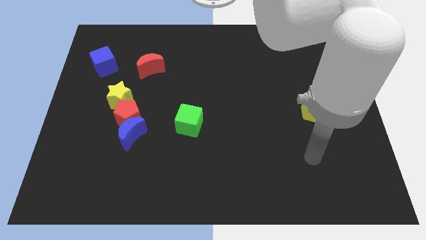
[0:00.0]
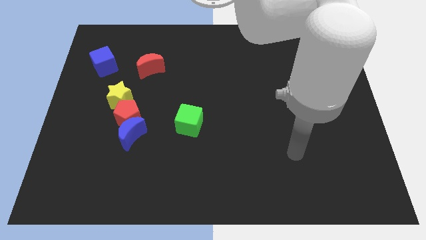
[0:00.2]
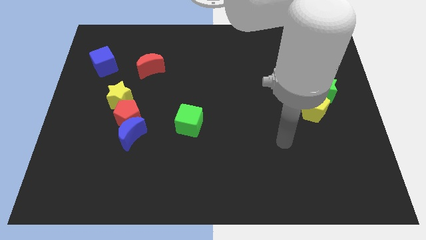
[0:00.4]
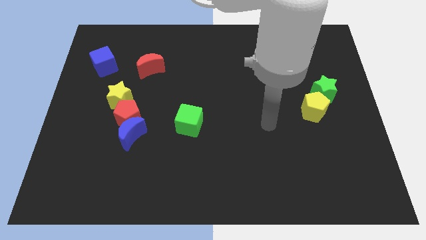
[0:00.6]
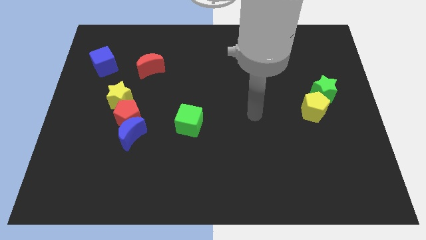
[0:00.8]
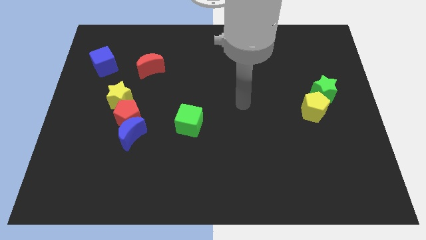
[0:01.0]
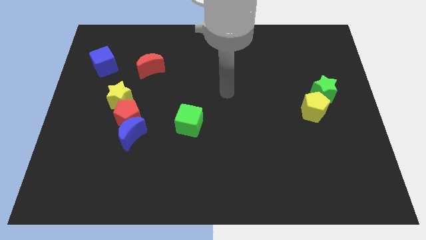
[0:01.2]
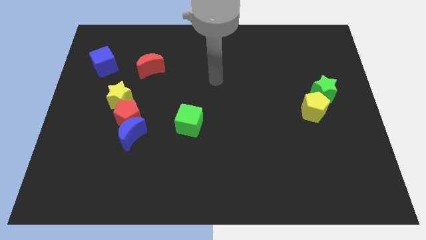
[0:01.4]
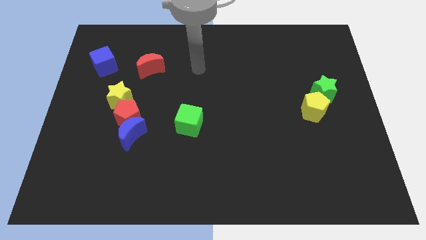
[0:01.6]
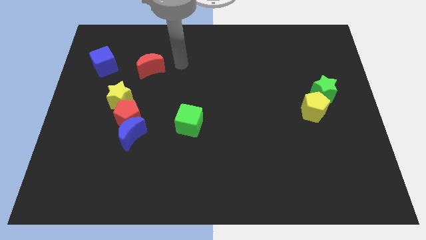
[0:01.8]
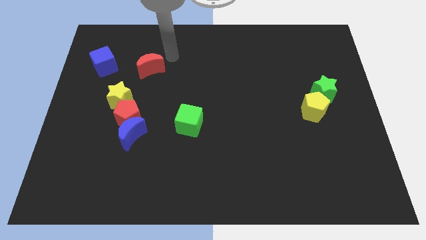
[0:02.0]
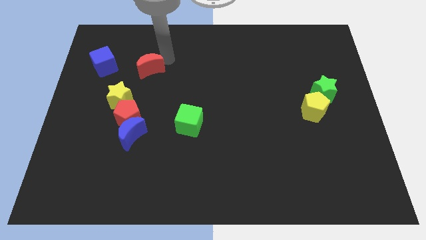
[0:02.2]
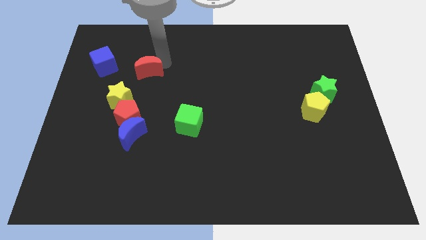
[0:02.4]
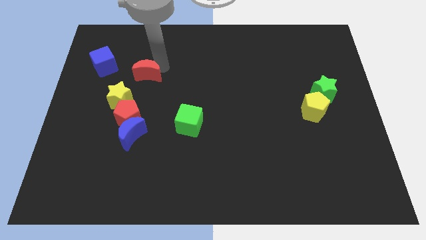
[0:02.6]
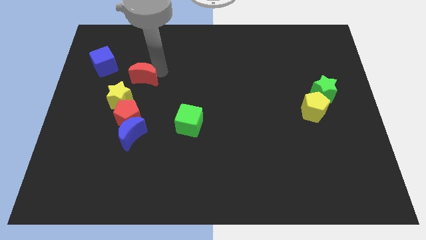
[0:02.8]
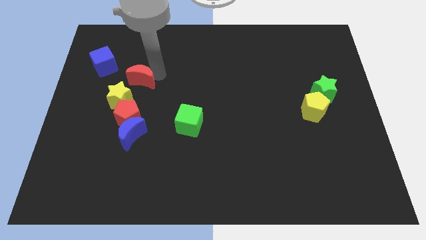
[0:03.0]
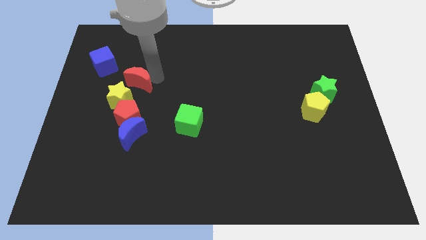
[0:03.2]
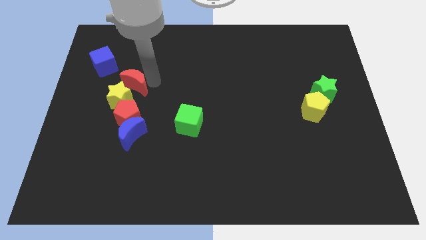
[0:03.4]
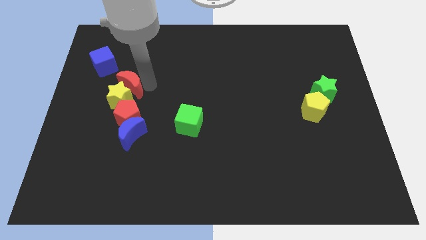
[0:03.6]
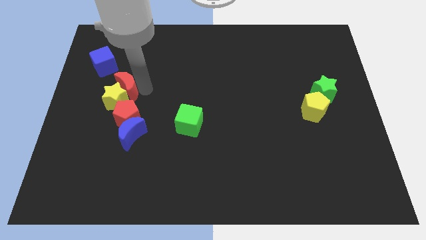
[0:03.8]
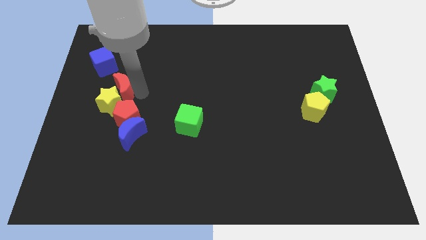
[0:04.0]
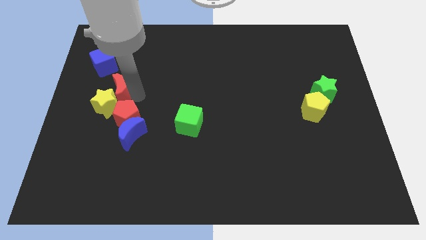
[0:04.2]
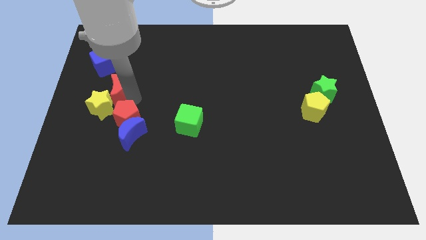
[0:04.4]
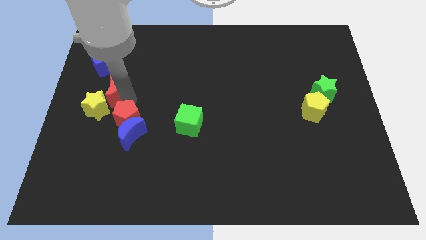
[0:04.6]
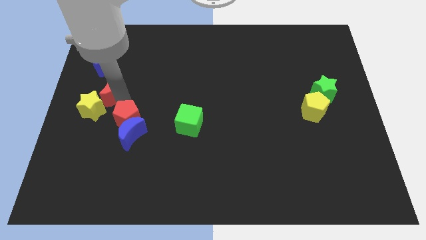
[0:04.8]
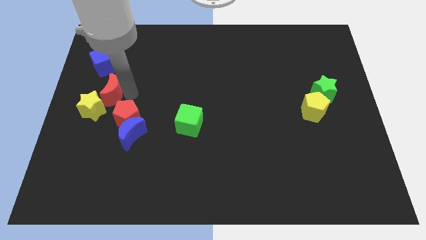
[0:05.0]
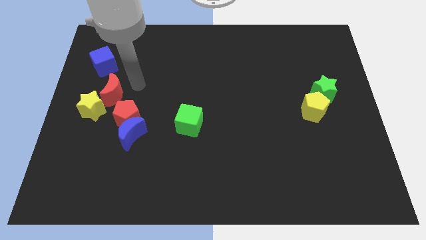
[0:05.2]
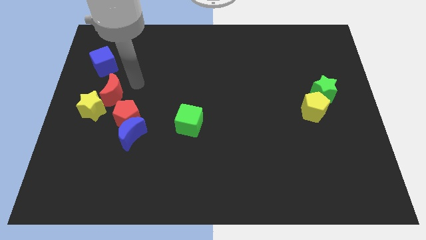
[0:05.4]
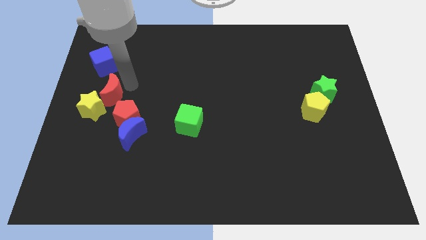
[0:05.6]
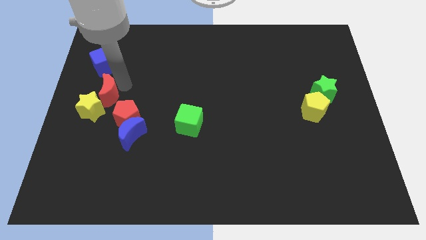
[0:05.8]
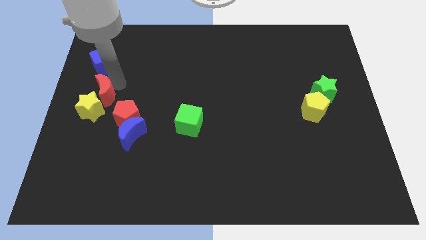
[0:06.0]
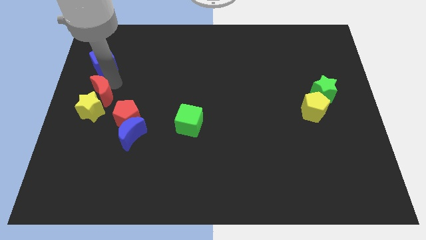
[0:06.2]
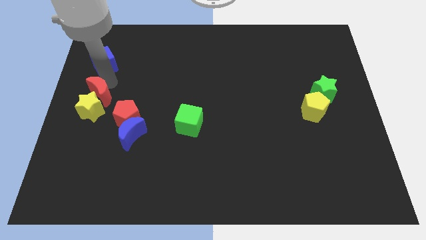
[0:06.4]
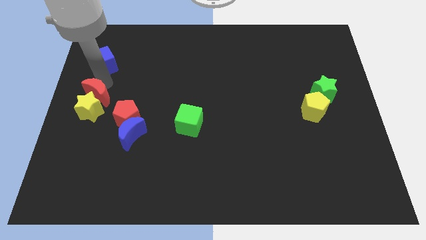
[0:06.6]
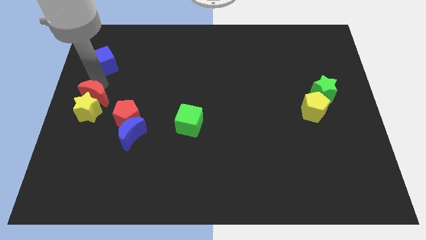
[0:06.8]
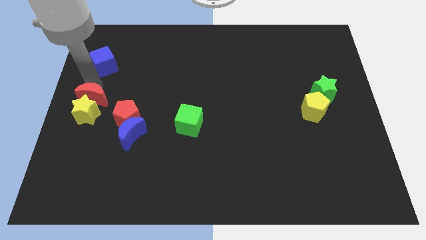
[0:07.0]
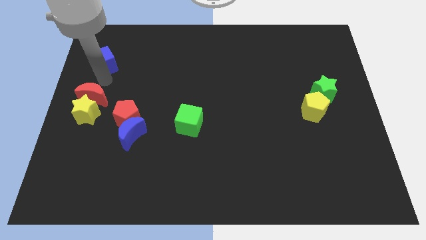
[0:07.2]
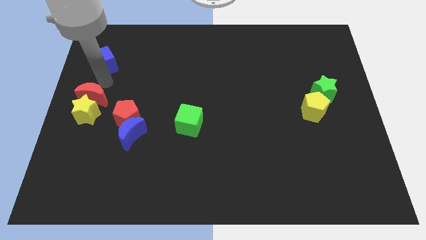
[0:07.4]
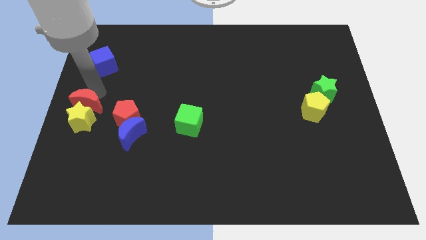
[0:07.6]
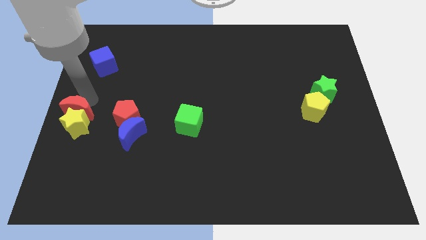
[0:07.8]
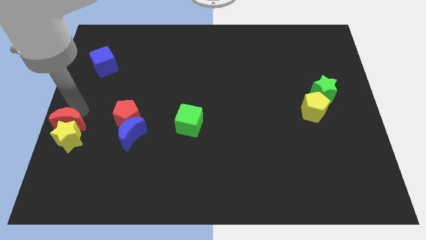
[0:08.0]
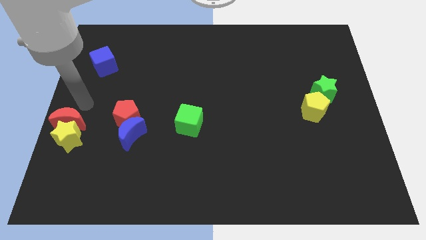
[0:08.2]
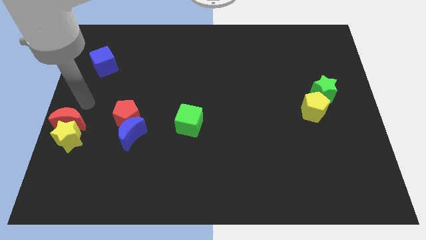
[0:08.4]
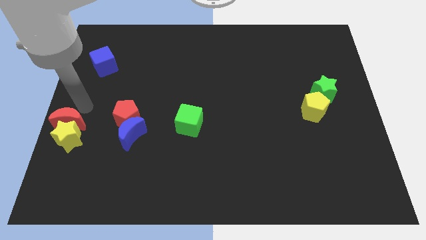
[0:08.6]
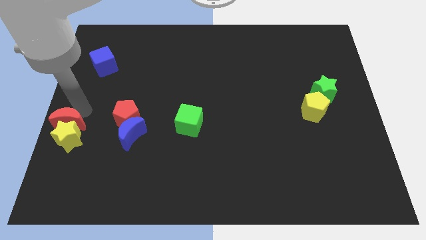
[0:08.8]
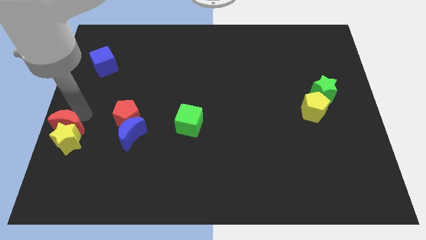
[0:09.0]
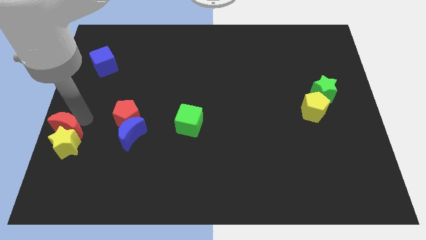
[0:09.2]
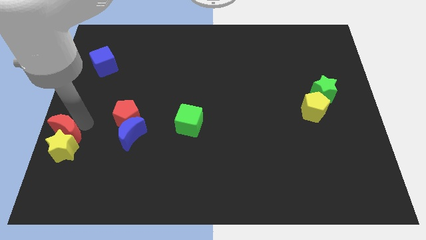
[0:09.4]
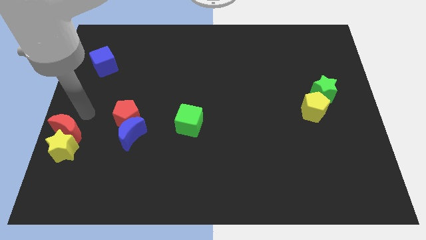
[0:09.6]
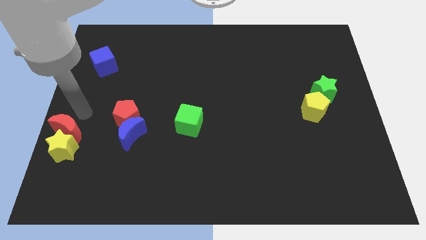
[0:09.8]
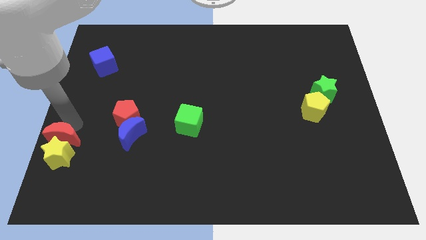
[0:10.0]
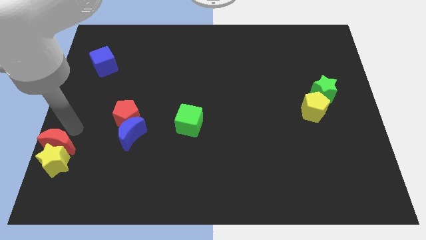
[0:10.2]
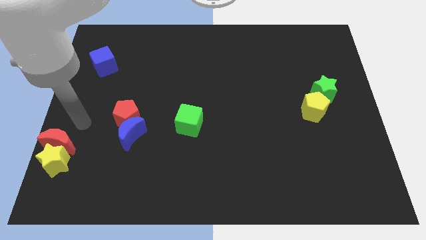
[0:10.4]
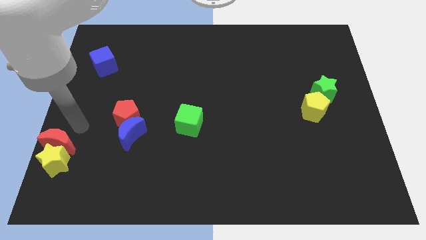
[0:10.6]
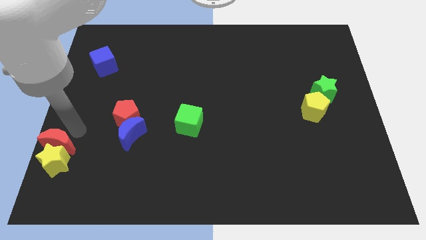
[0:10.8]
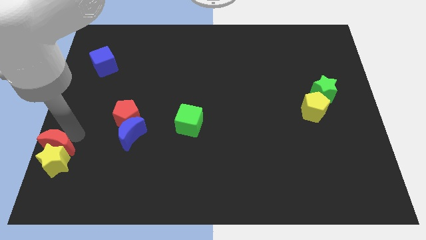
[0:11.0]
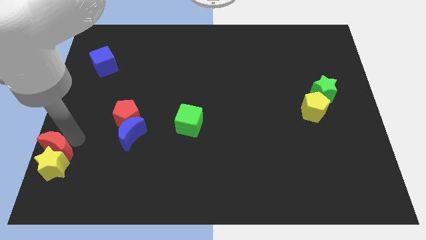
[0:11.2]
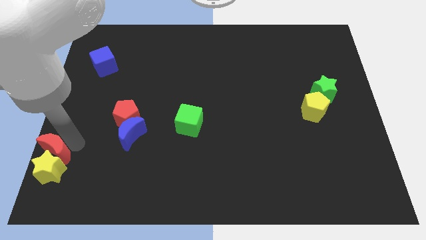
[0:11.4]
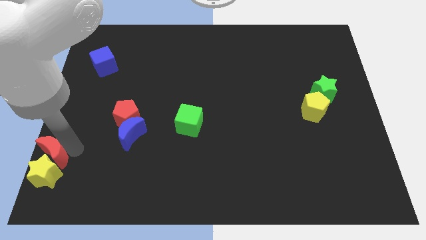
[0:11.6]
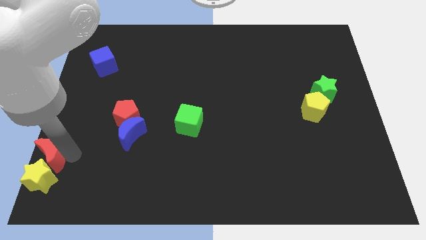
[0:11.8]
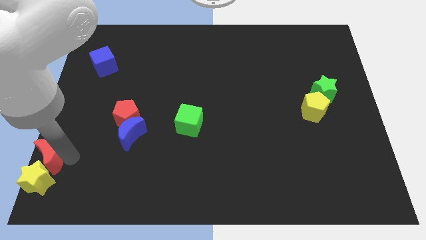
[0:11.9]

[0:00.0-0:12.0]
move the red moon to the bottom left corner
